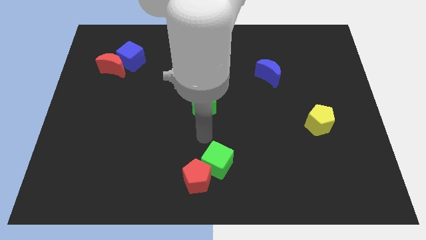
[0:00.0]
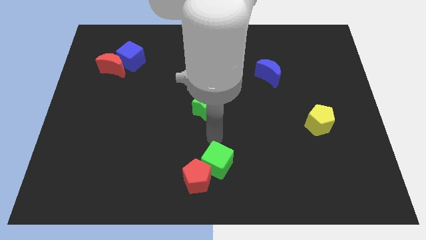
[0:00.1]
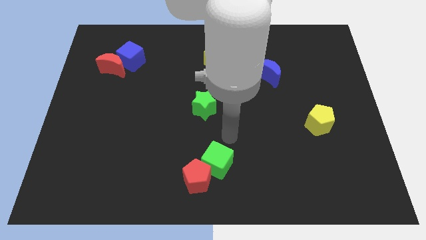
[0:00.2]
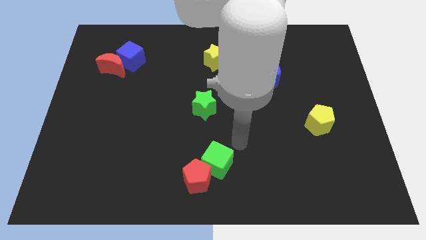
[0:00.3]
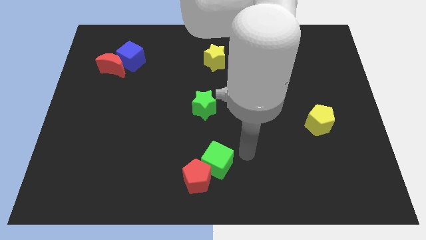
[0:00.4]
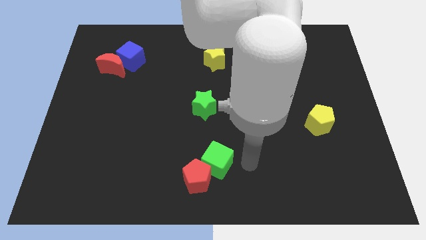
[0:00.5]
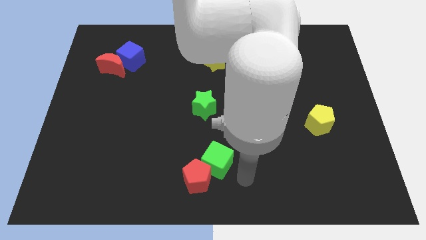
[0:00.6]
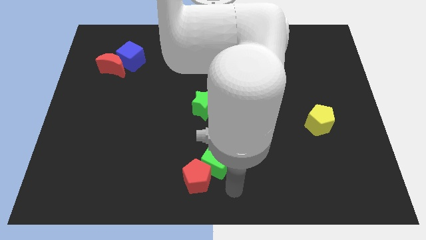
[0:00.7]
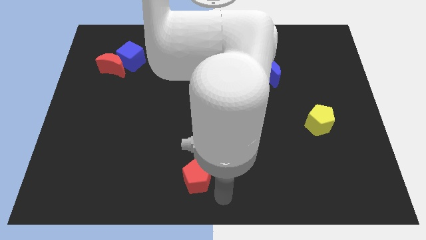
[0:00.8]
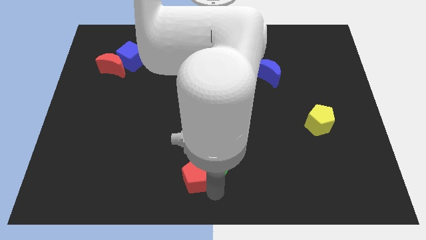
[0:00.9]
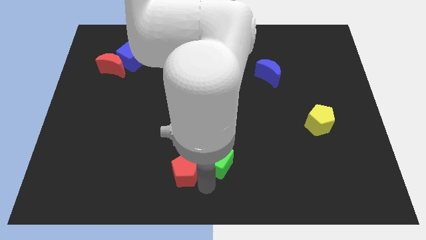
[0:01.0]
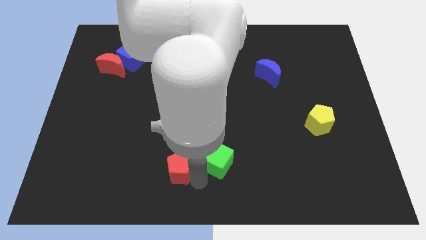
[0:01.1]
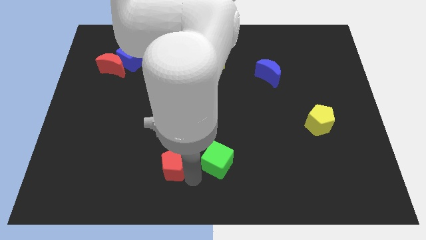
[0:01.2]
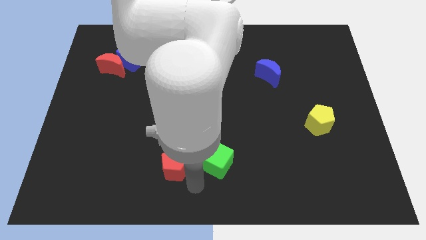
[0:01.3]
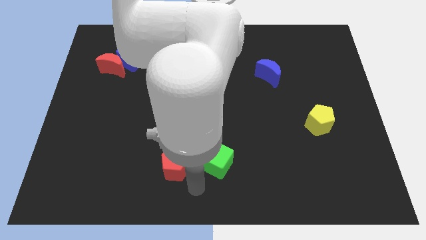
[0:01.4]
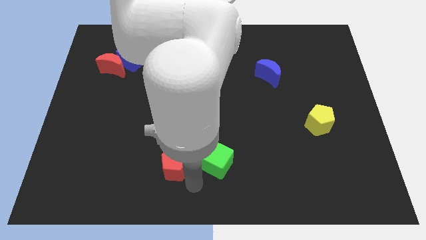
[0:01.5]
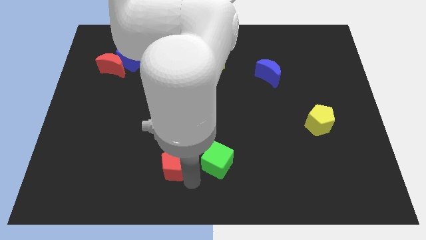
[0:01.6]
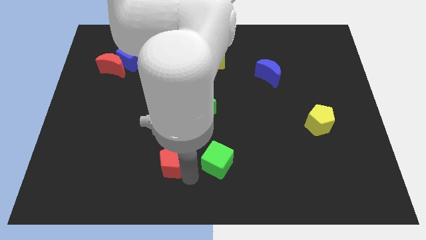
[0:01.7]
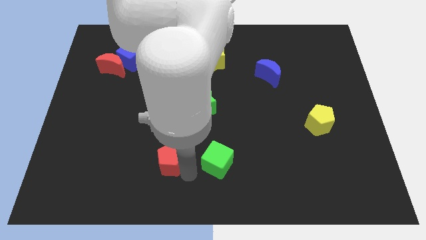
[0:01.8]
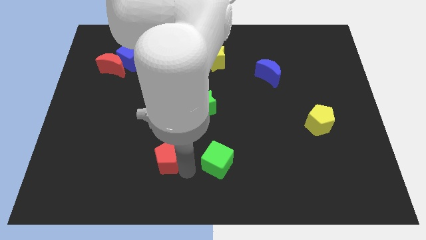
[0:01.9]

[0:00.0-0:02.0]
move the red pentagon a little bit diagonally up and left

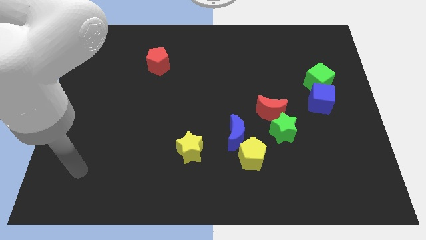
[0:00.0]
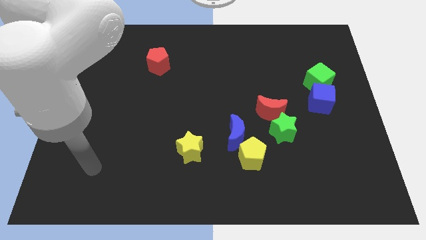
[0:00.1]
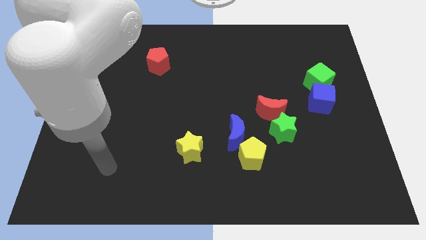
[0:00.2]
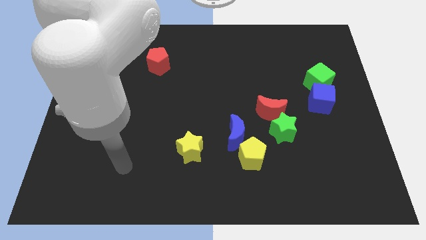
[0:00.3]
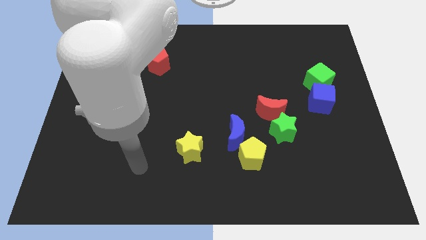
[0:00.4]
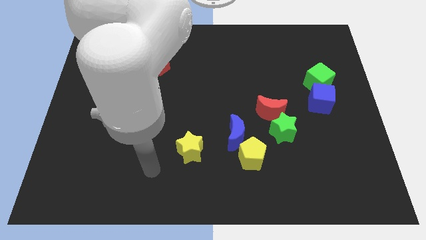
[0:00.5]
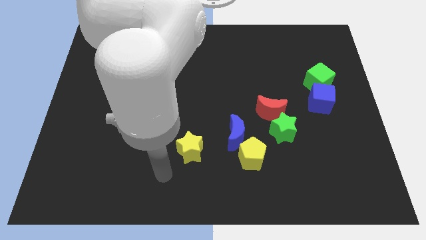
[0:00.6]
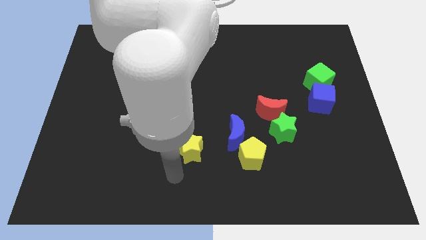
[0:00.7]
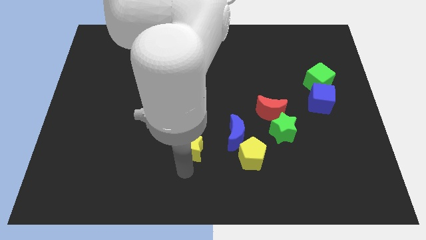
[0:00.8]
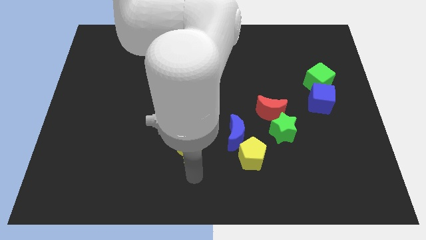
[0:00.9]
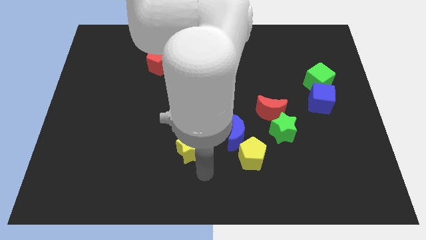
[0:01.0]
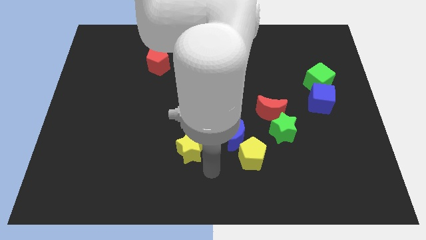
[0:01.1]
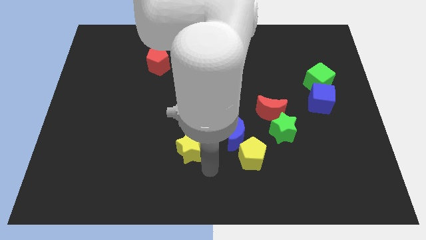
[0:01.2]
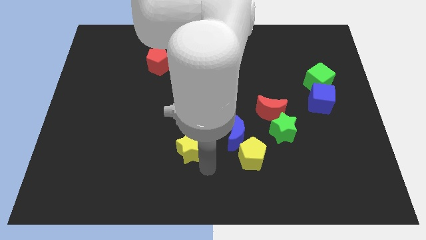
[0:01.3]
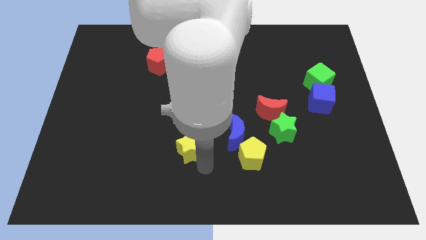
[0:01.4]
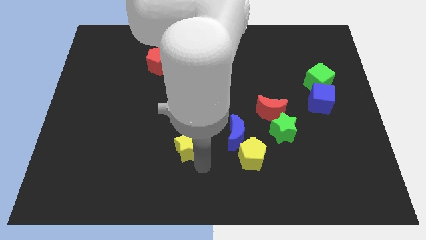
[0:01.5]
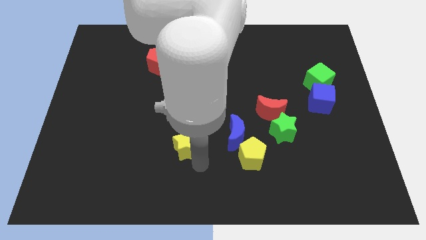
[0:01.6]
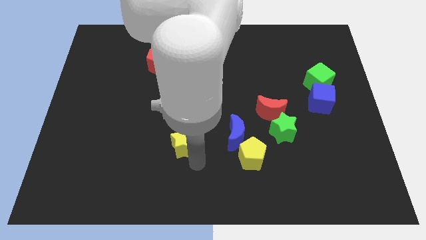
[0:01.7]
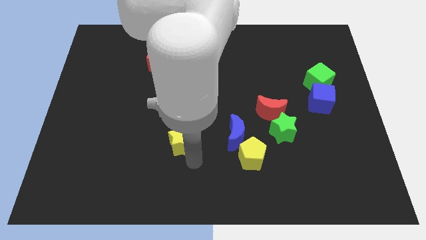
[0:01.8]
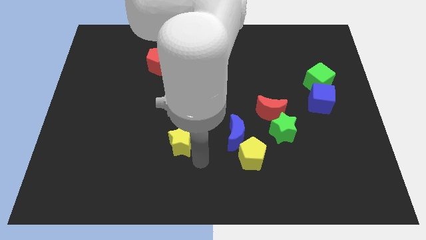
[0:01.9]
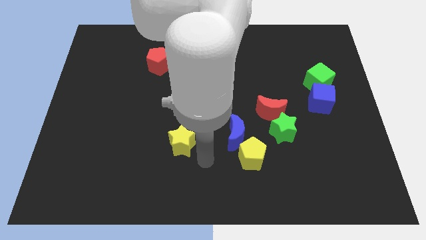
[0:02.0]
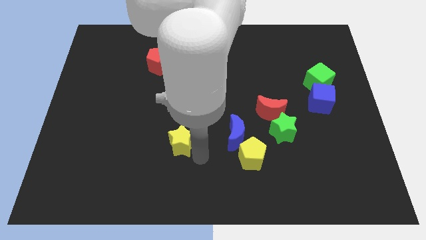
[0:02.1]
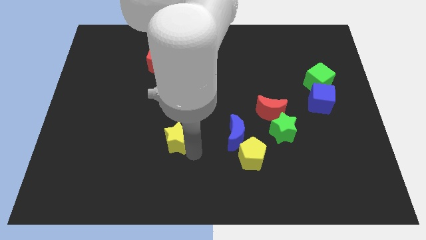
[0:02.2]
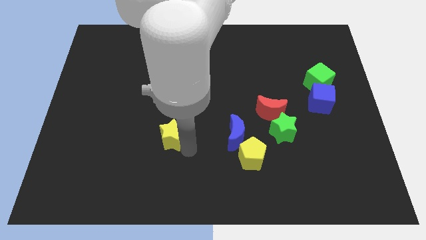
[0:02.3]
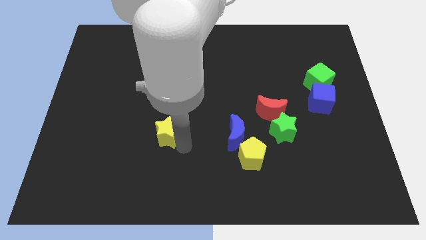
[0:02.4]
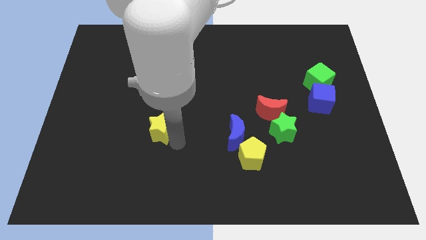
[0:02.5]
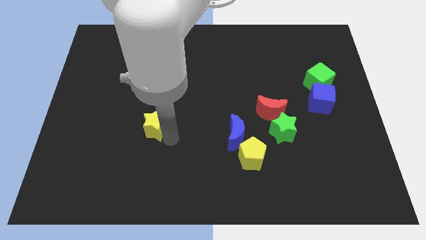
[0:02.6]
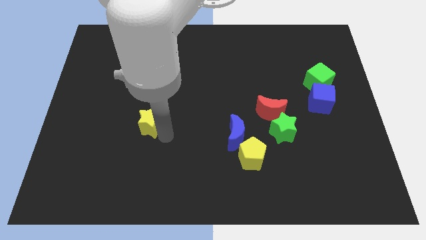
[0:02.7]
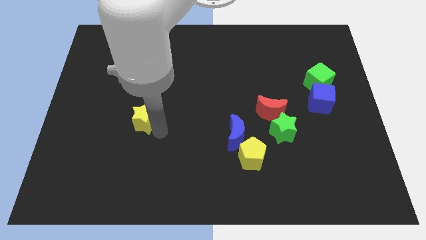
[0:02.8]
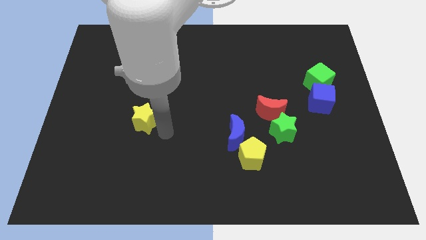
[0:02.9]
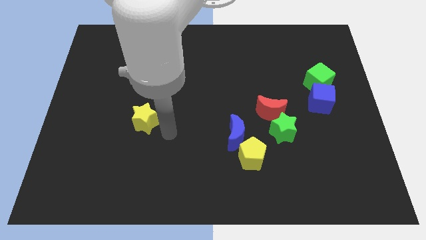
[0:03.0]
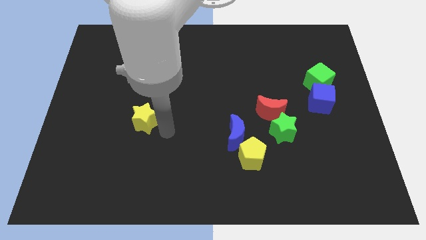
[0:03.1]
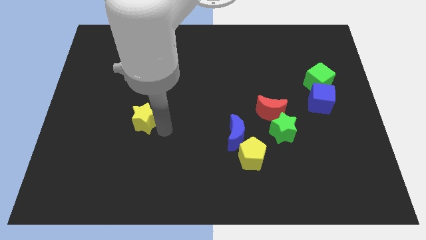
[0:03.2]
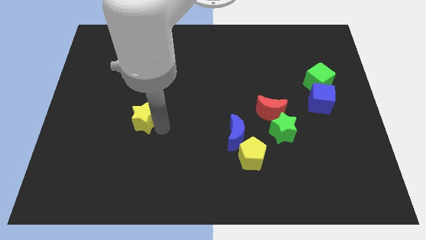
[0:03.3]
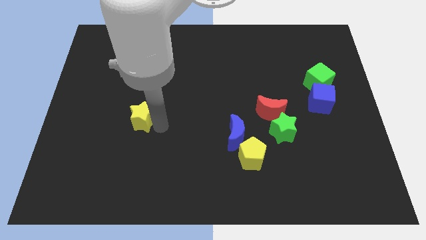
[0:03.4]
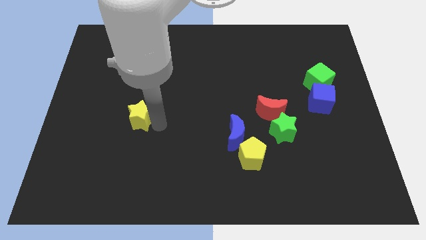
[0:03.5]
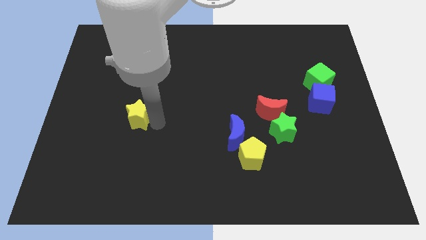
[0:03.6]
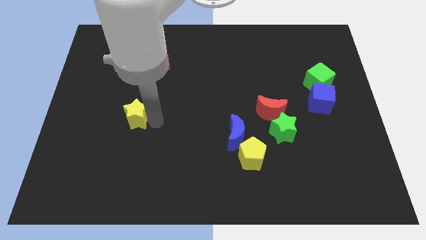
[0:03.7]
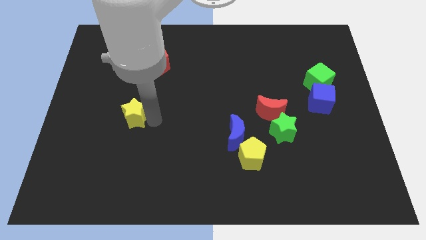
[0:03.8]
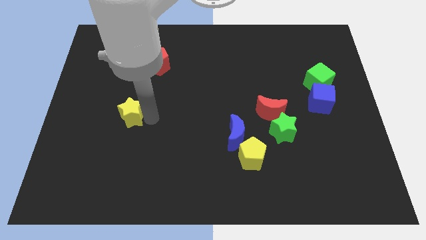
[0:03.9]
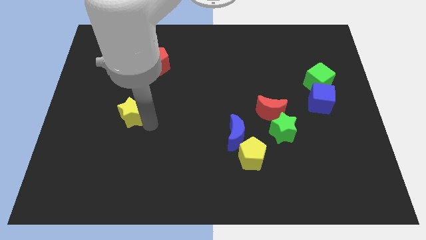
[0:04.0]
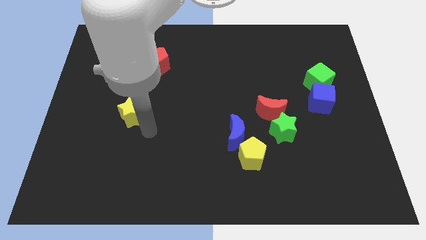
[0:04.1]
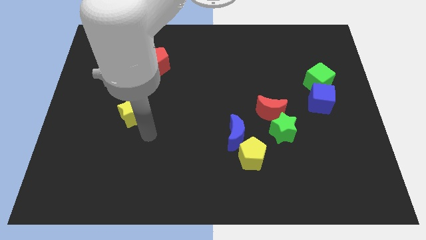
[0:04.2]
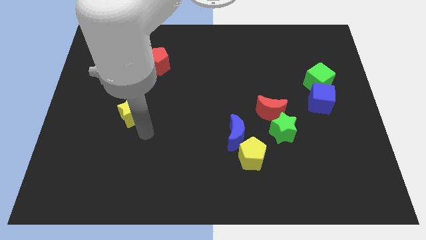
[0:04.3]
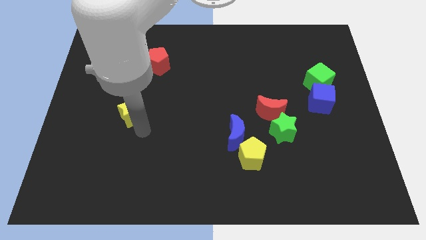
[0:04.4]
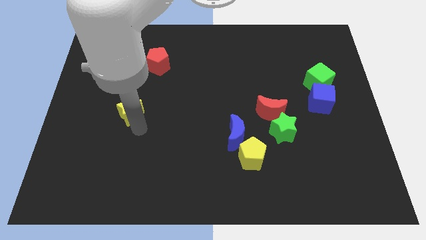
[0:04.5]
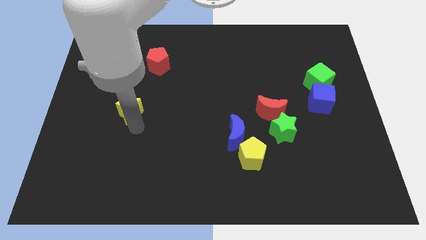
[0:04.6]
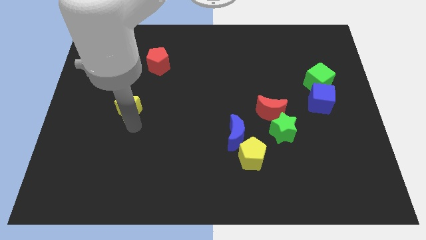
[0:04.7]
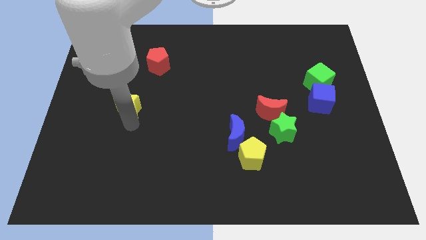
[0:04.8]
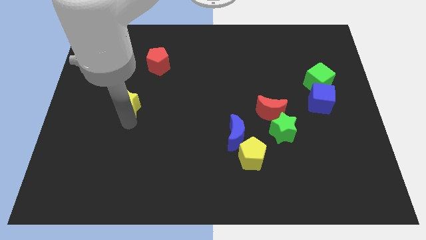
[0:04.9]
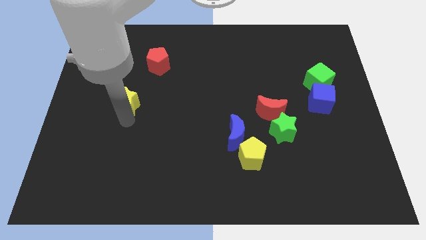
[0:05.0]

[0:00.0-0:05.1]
slide the yellow star diagonally upwards and to the left

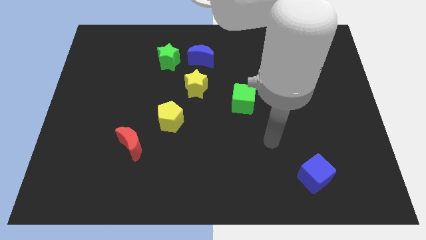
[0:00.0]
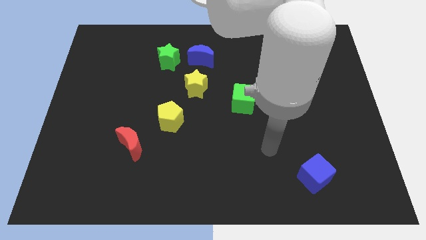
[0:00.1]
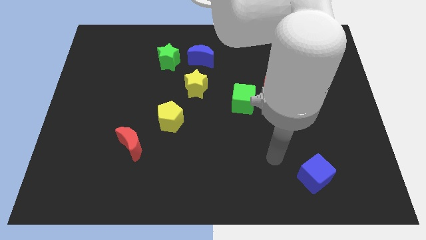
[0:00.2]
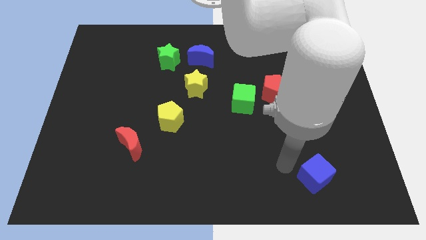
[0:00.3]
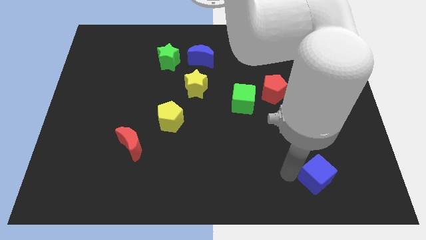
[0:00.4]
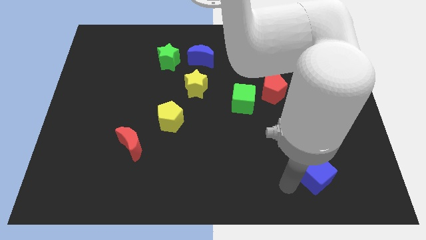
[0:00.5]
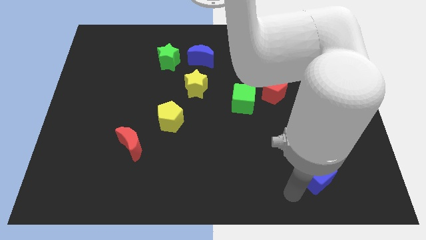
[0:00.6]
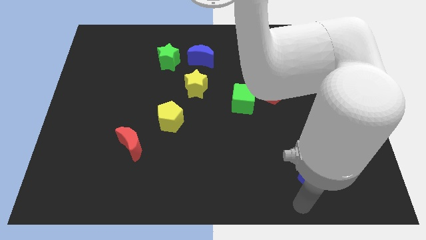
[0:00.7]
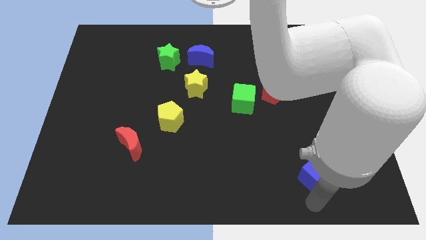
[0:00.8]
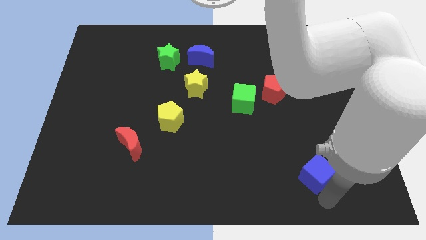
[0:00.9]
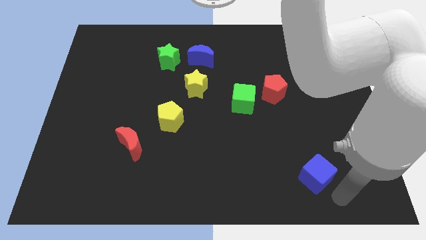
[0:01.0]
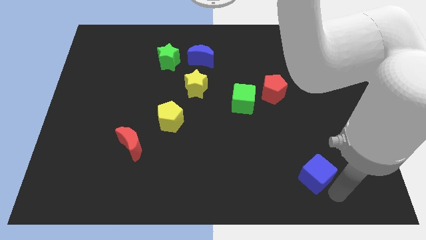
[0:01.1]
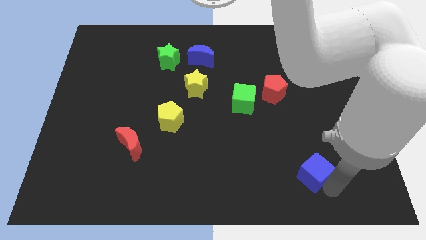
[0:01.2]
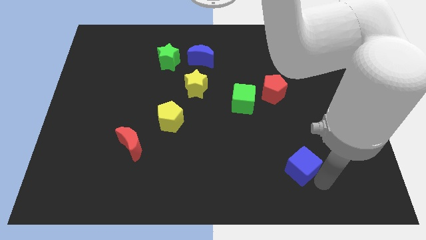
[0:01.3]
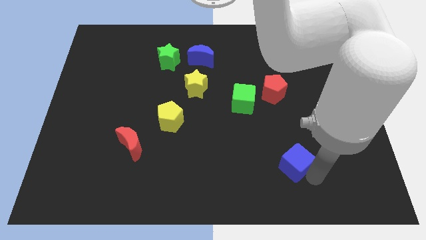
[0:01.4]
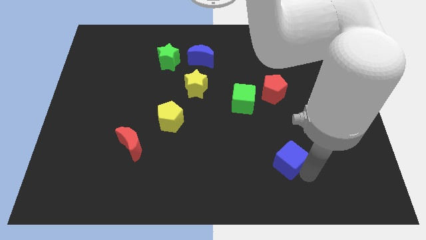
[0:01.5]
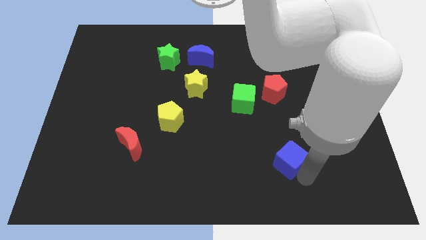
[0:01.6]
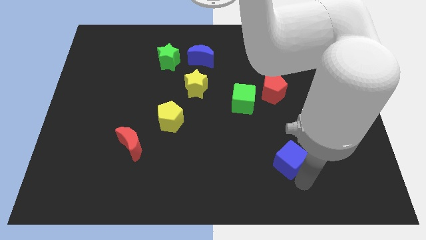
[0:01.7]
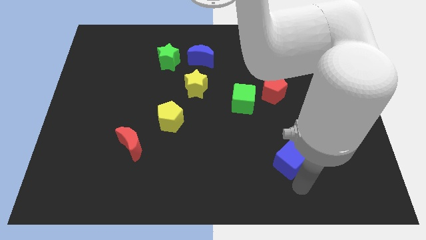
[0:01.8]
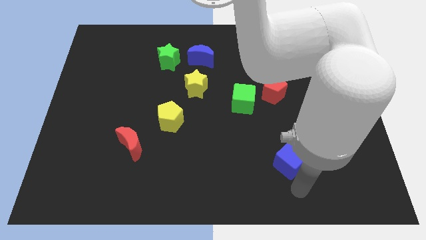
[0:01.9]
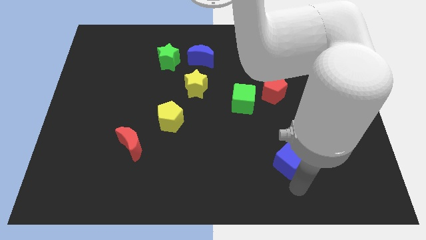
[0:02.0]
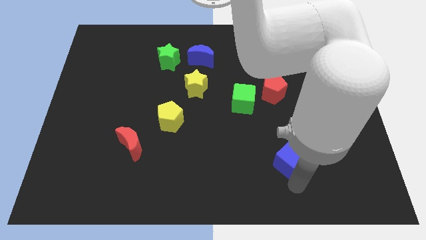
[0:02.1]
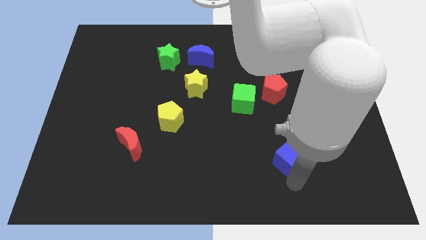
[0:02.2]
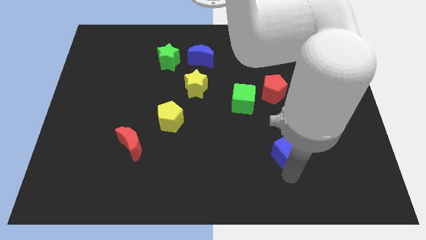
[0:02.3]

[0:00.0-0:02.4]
move the blue cube diagonally up and to the left a little bit
